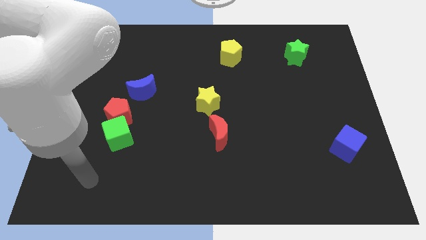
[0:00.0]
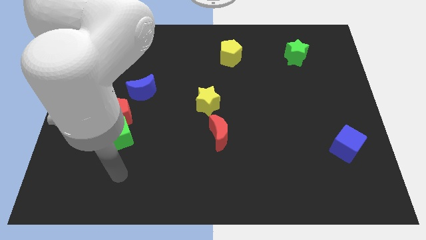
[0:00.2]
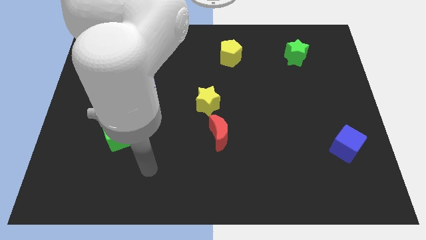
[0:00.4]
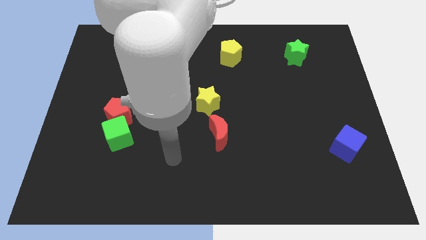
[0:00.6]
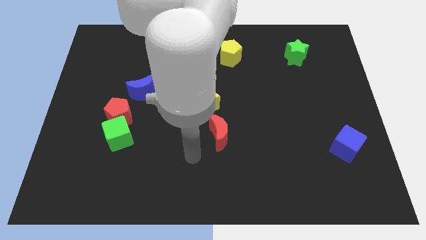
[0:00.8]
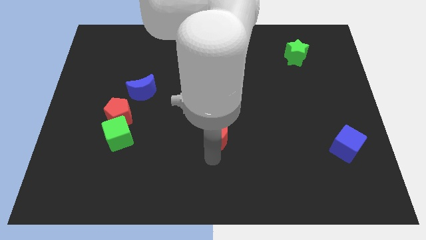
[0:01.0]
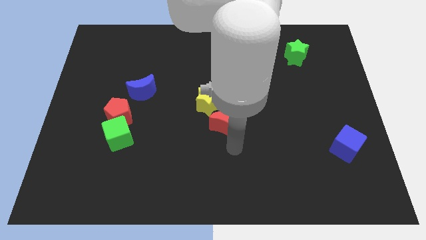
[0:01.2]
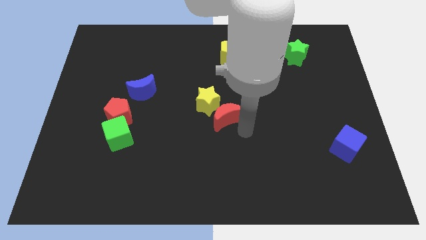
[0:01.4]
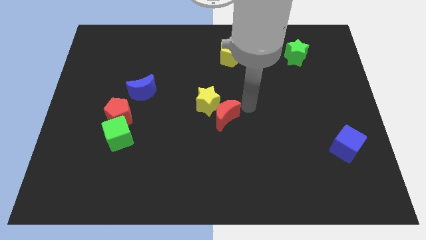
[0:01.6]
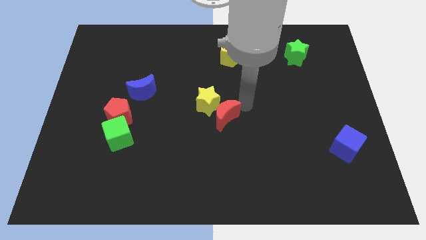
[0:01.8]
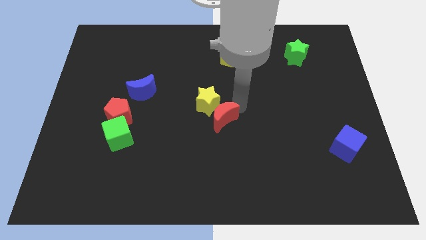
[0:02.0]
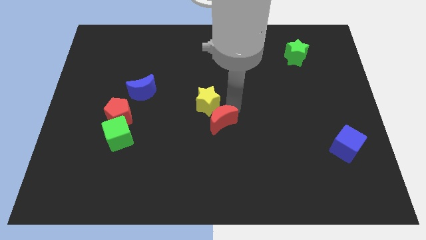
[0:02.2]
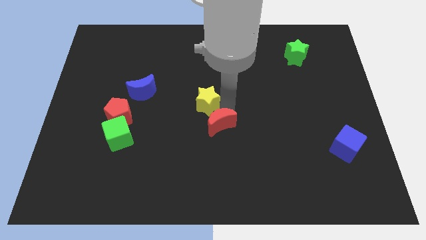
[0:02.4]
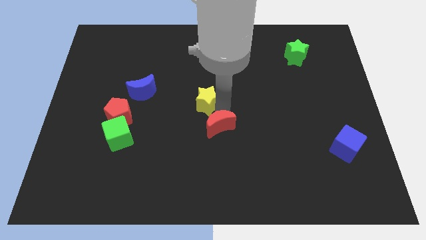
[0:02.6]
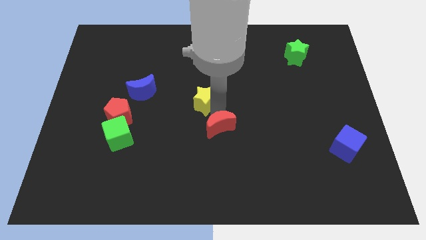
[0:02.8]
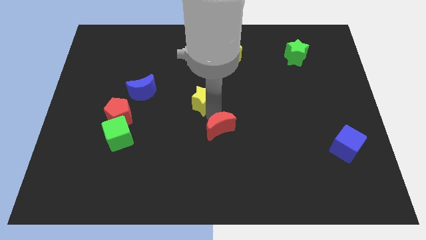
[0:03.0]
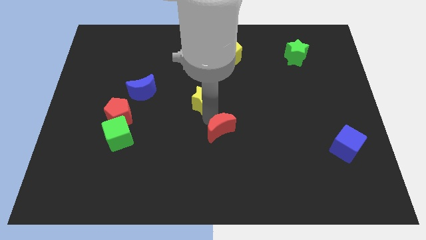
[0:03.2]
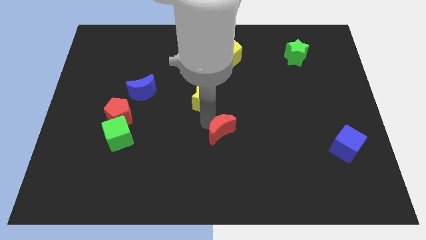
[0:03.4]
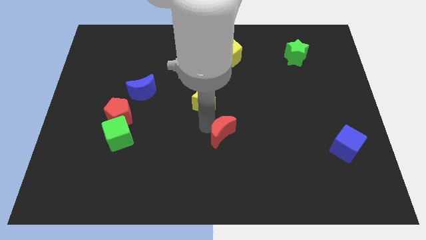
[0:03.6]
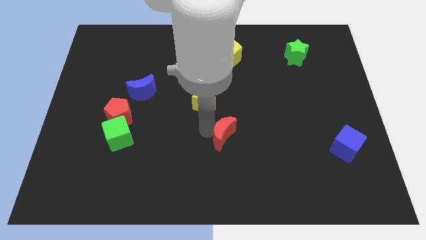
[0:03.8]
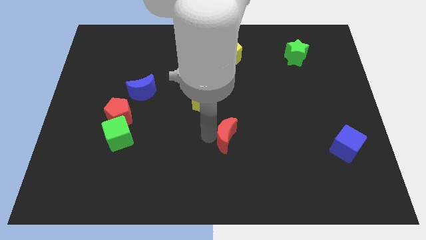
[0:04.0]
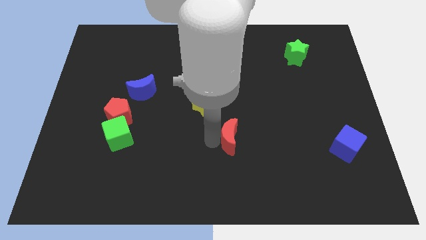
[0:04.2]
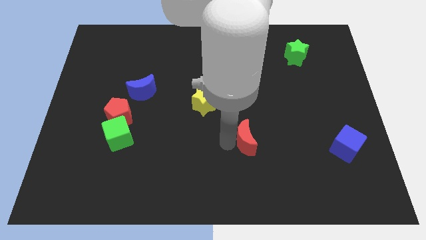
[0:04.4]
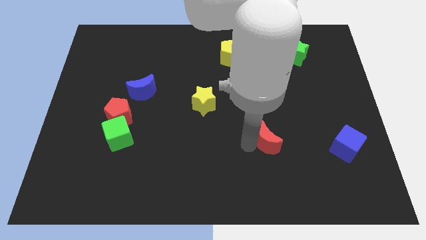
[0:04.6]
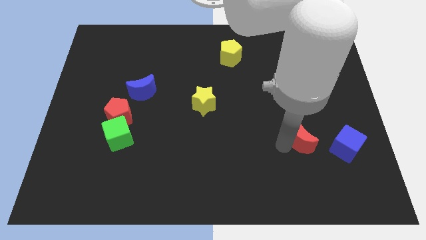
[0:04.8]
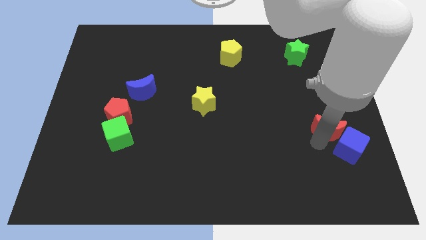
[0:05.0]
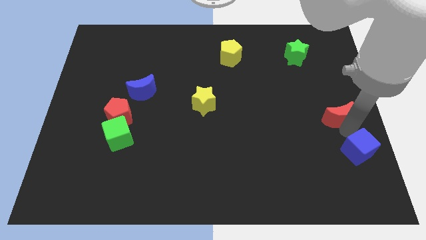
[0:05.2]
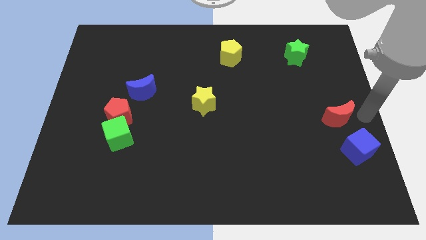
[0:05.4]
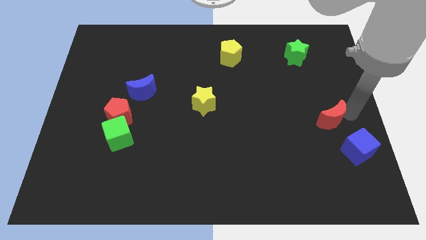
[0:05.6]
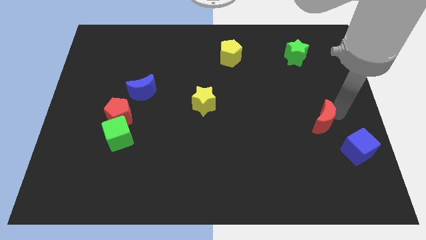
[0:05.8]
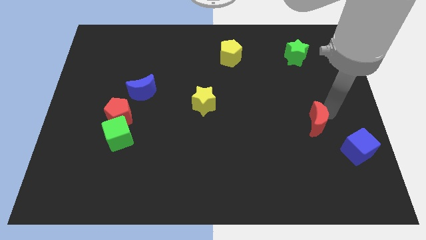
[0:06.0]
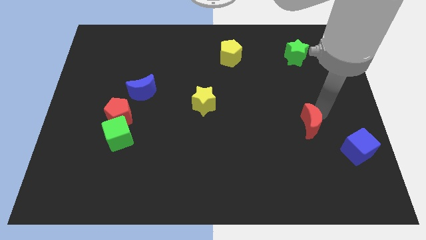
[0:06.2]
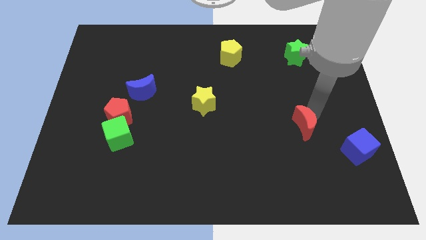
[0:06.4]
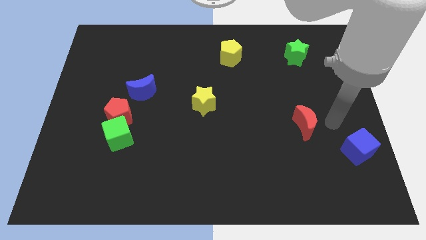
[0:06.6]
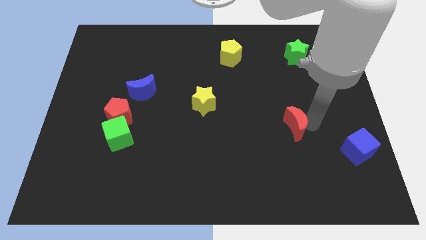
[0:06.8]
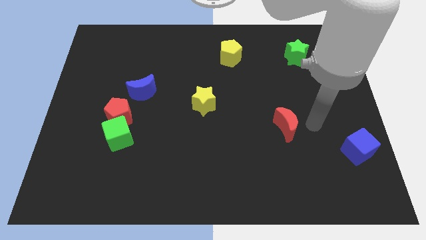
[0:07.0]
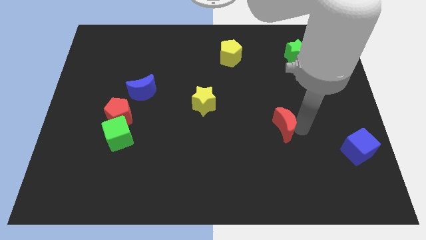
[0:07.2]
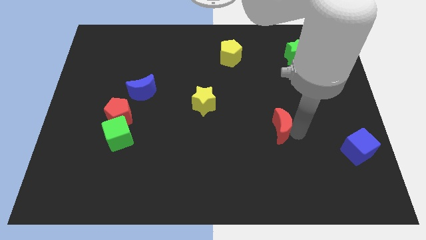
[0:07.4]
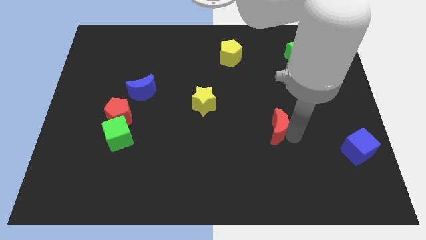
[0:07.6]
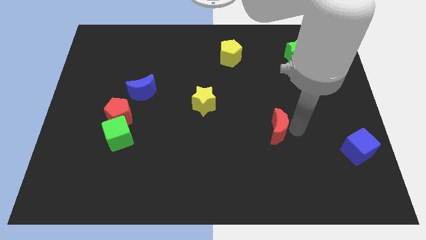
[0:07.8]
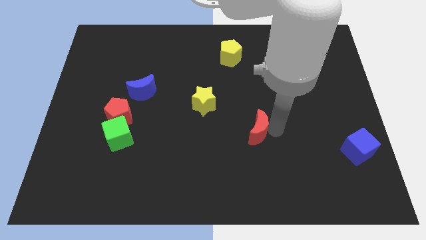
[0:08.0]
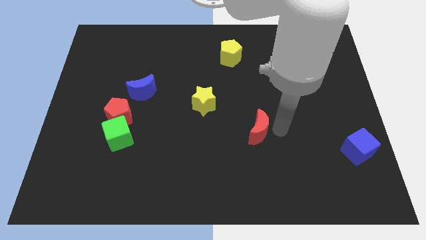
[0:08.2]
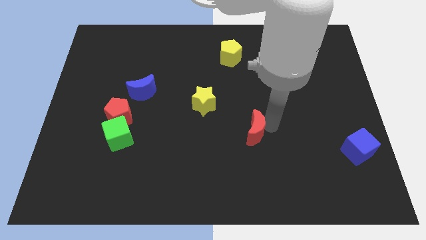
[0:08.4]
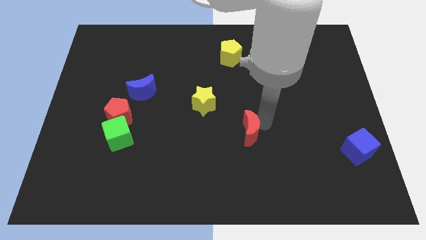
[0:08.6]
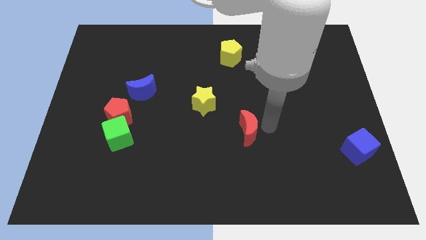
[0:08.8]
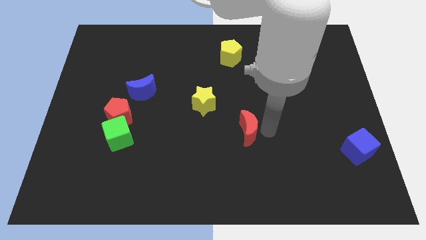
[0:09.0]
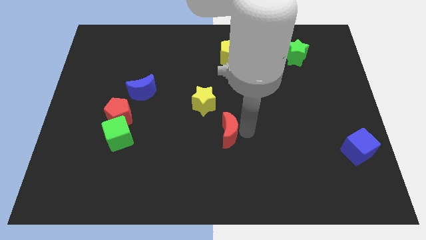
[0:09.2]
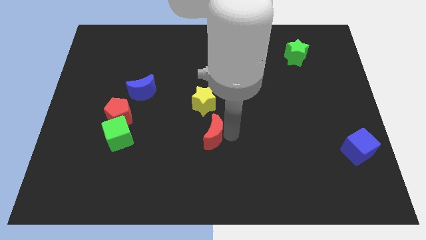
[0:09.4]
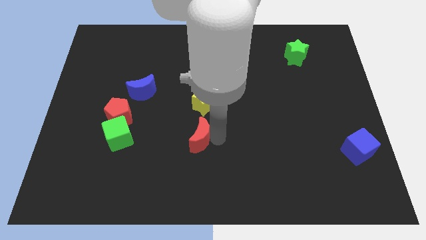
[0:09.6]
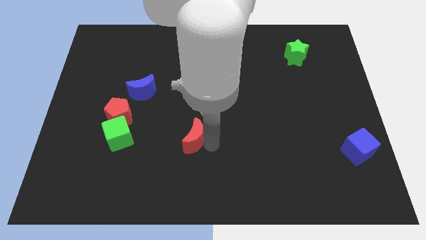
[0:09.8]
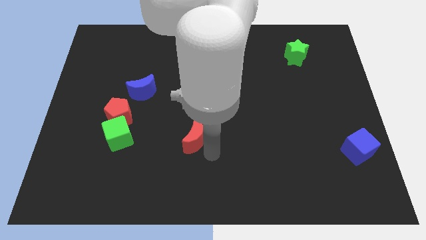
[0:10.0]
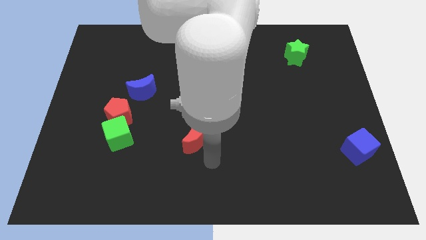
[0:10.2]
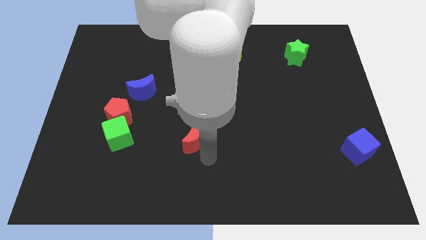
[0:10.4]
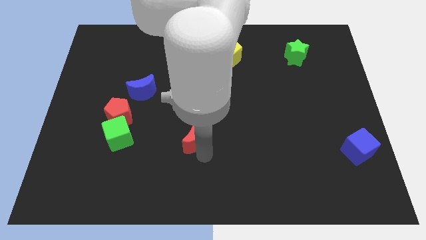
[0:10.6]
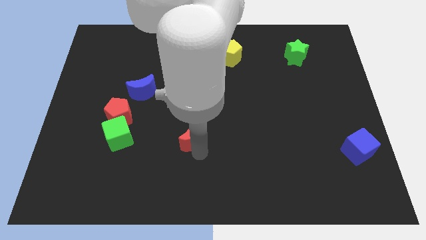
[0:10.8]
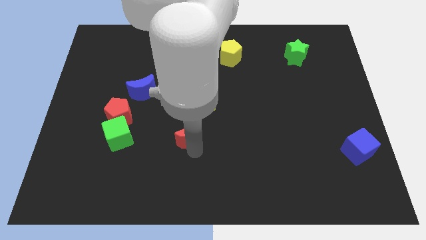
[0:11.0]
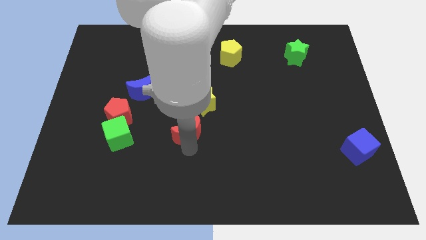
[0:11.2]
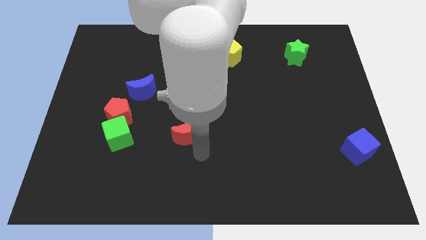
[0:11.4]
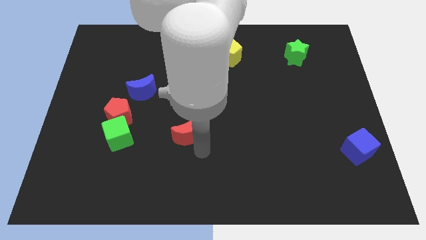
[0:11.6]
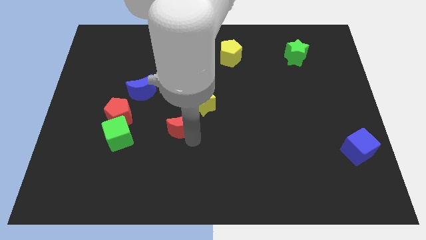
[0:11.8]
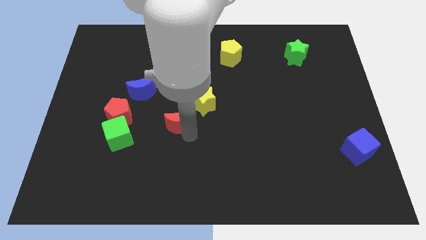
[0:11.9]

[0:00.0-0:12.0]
slightly move the red moon upwards and to the left

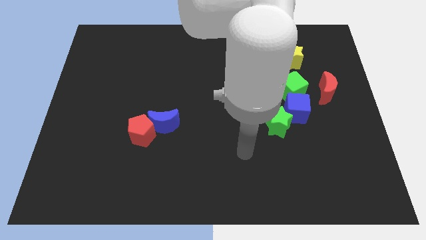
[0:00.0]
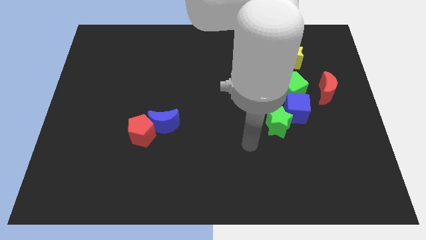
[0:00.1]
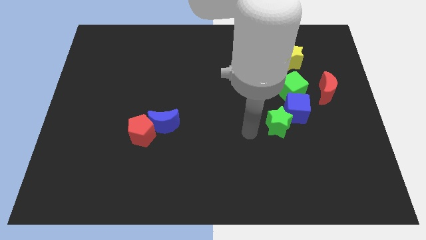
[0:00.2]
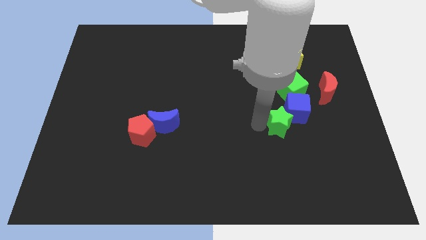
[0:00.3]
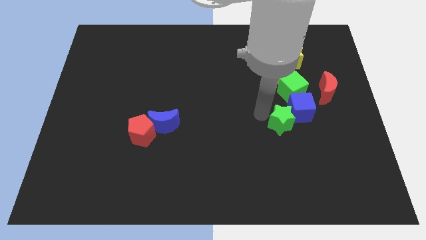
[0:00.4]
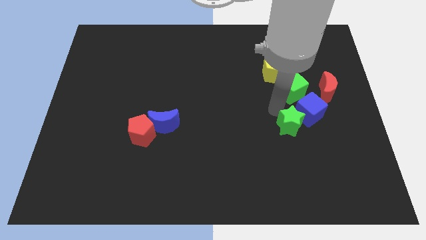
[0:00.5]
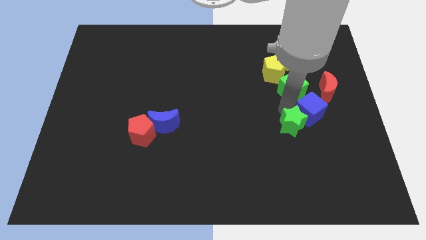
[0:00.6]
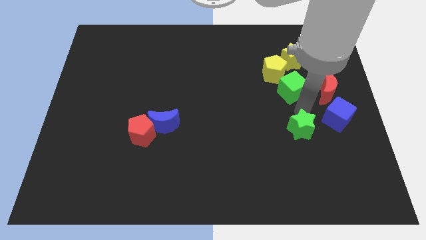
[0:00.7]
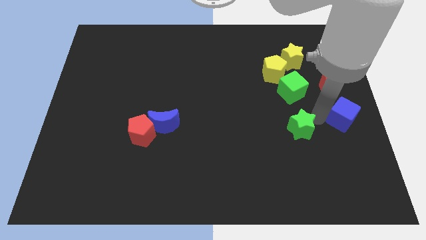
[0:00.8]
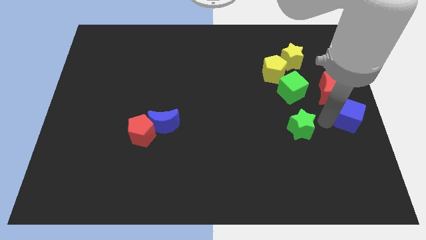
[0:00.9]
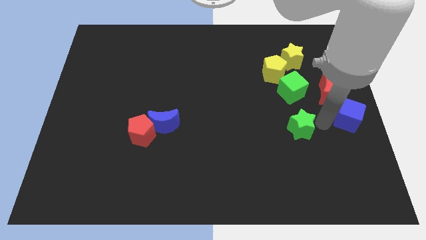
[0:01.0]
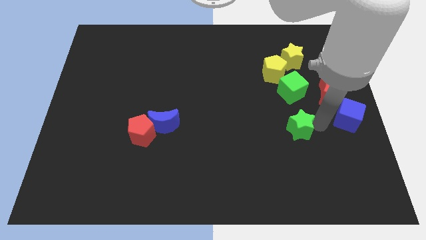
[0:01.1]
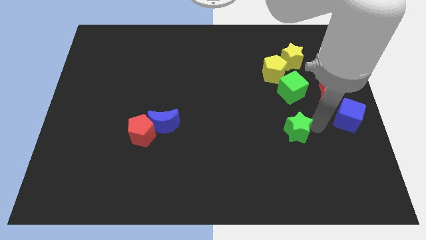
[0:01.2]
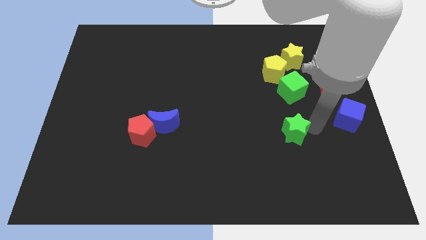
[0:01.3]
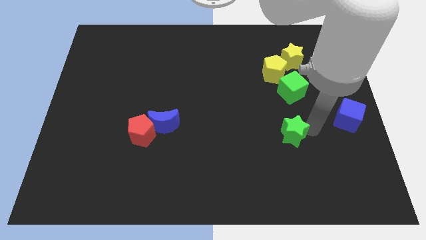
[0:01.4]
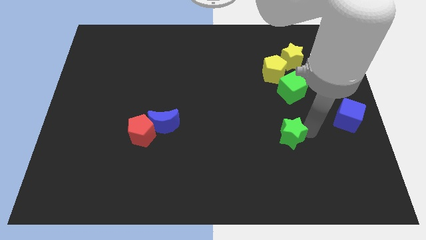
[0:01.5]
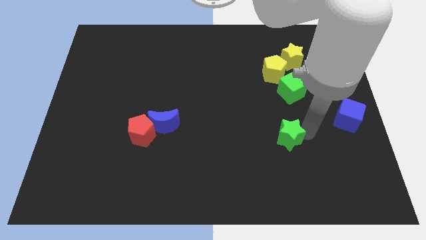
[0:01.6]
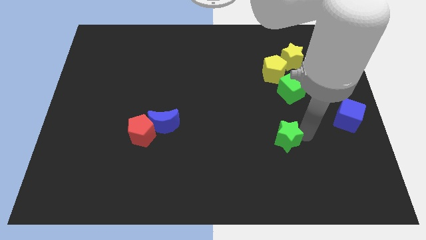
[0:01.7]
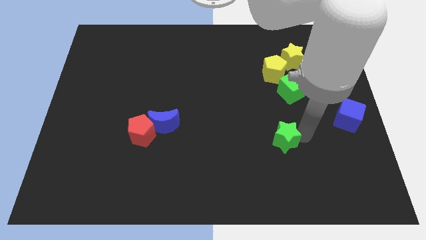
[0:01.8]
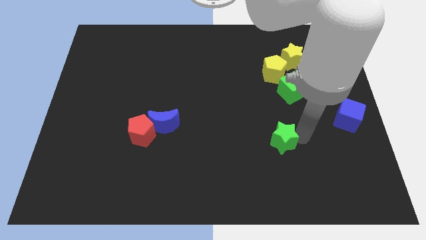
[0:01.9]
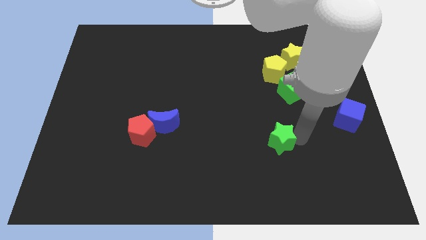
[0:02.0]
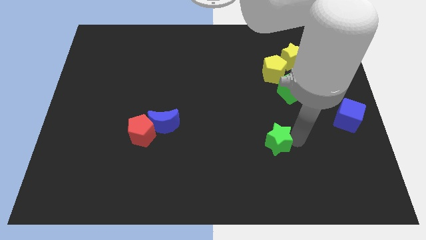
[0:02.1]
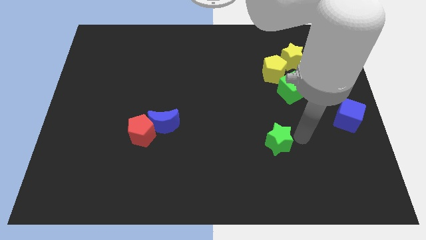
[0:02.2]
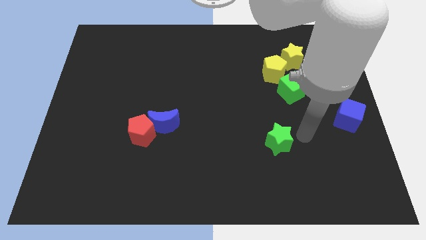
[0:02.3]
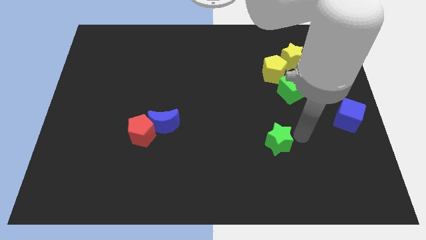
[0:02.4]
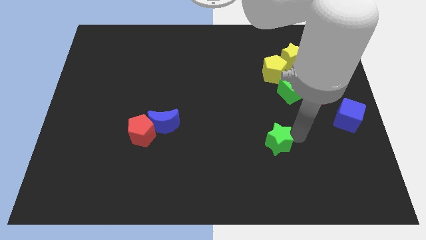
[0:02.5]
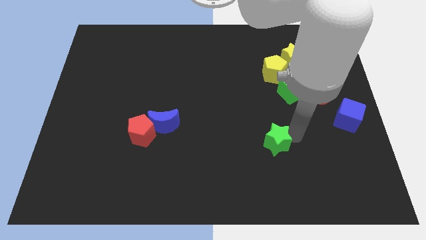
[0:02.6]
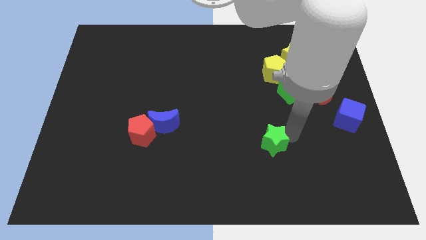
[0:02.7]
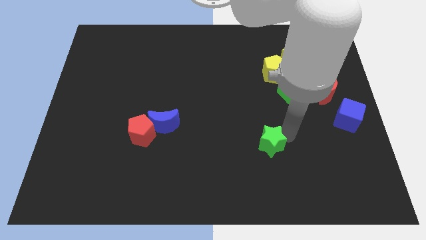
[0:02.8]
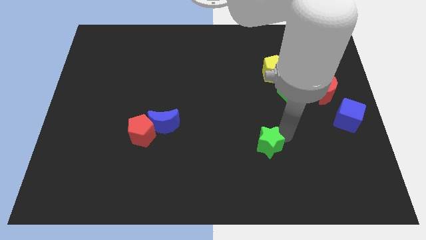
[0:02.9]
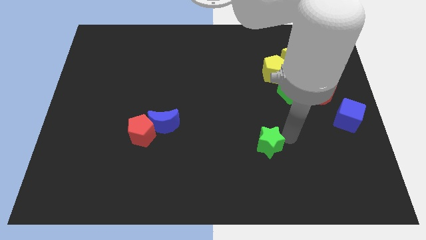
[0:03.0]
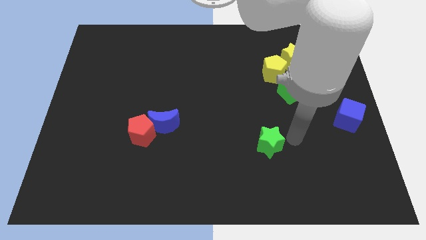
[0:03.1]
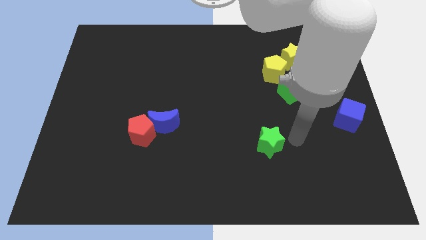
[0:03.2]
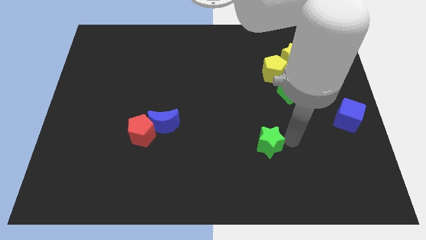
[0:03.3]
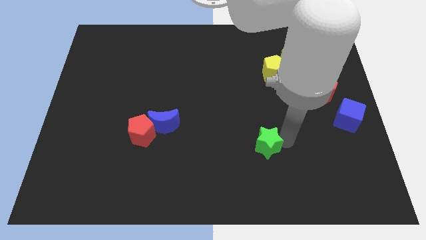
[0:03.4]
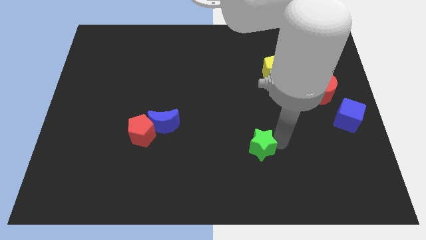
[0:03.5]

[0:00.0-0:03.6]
slightly move the green star down and to the left diagonally
